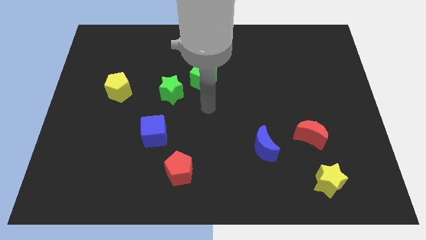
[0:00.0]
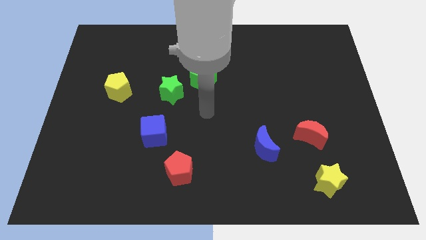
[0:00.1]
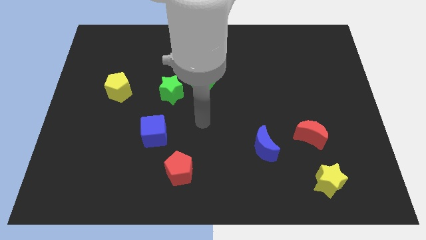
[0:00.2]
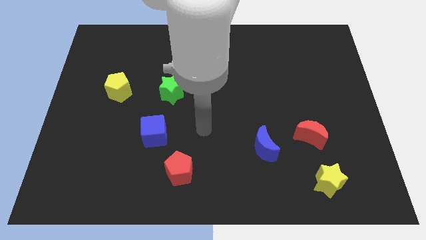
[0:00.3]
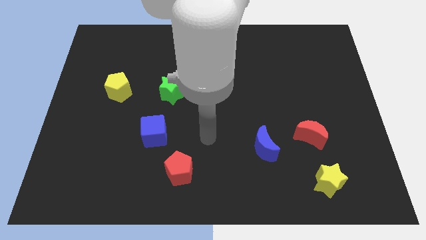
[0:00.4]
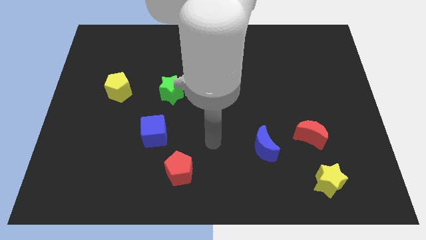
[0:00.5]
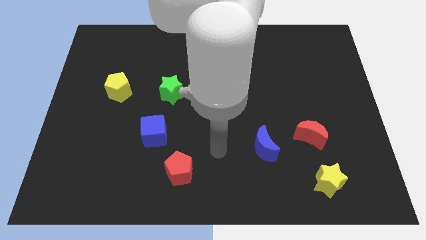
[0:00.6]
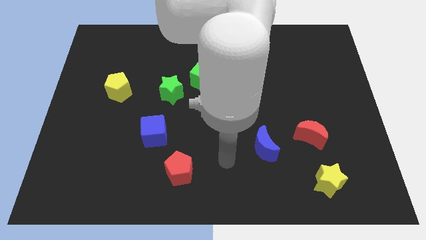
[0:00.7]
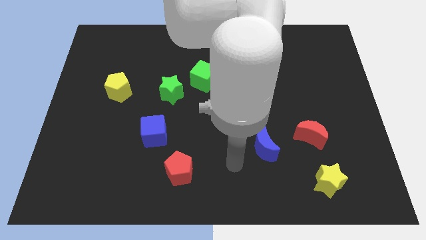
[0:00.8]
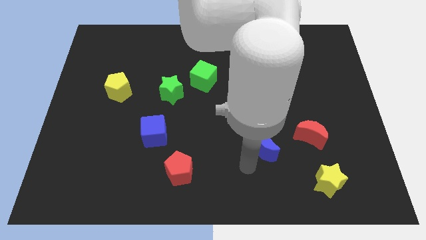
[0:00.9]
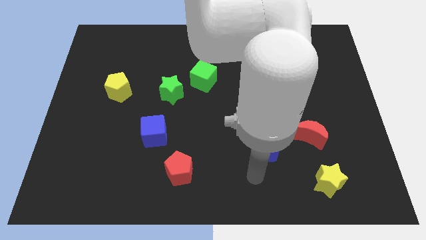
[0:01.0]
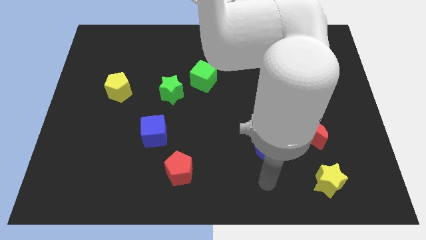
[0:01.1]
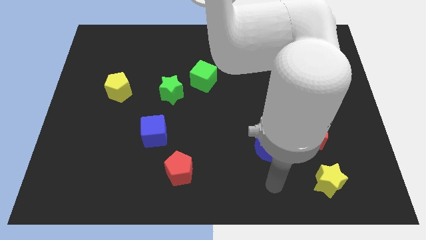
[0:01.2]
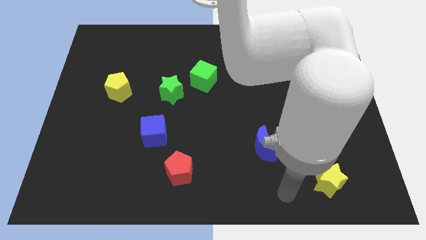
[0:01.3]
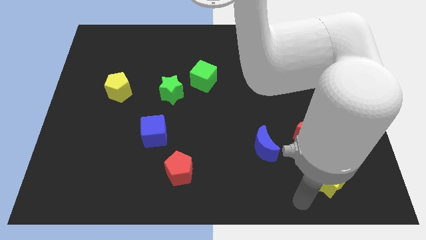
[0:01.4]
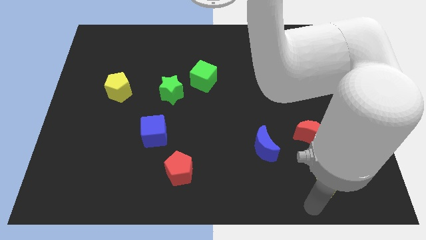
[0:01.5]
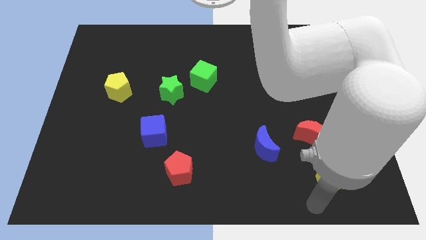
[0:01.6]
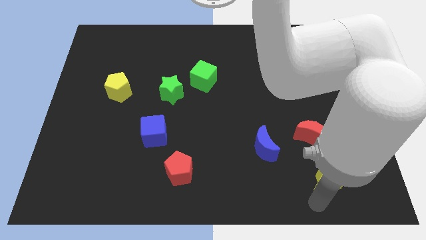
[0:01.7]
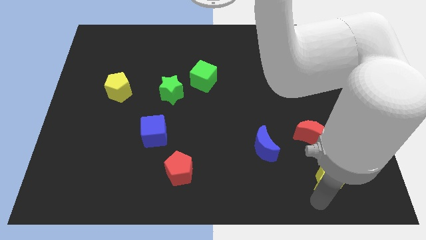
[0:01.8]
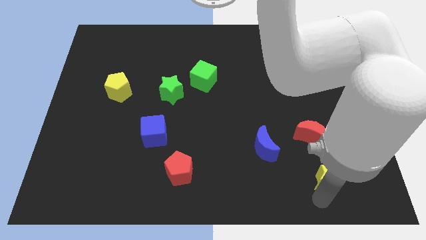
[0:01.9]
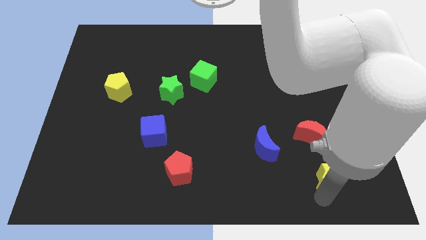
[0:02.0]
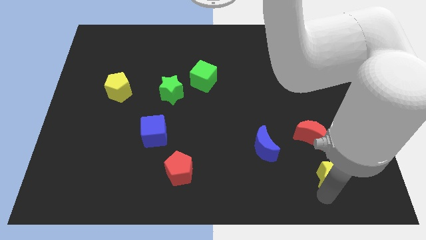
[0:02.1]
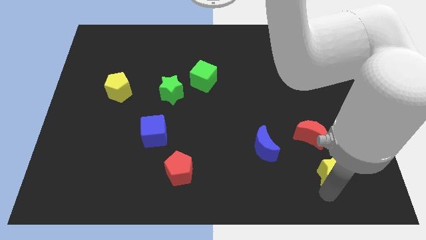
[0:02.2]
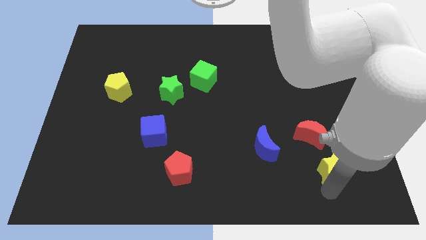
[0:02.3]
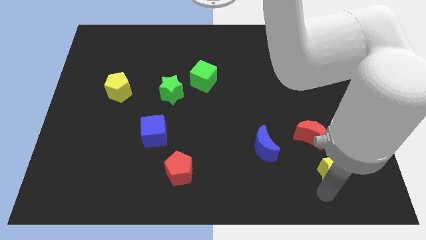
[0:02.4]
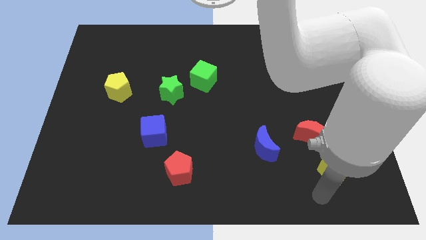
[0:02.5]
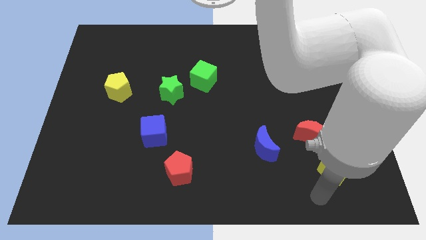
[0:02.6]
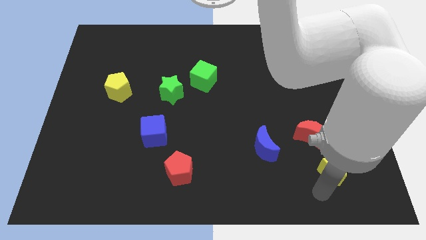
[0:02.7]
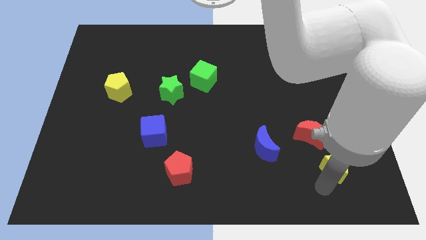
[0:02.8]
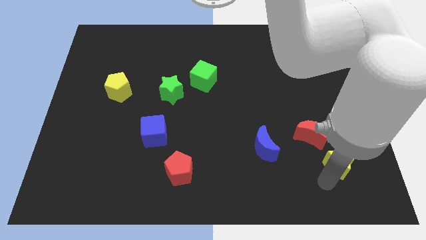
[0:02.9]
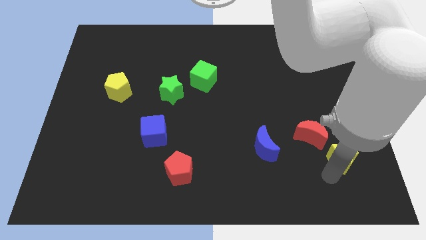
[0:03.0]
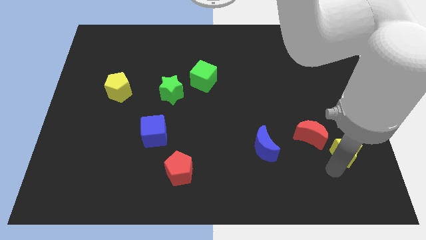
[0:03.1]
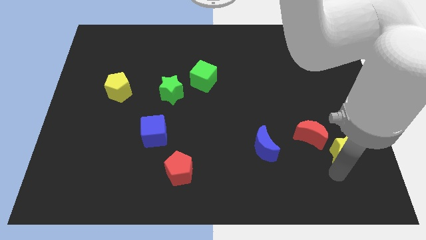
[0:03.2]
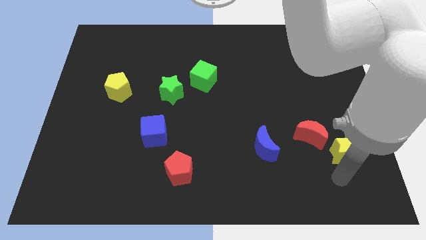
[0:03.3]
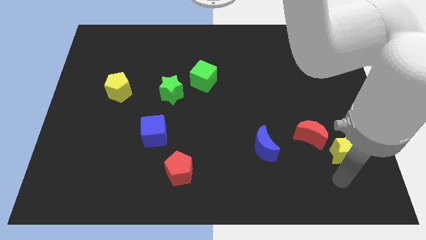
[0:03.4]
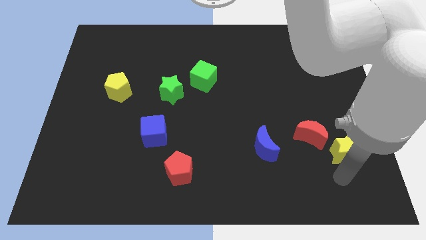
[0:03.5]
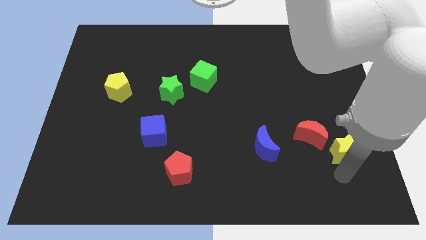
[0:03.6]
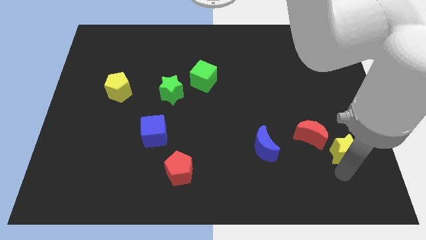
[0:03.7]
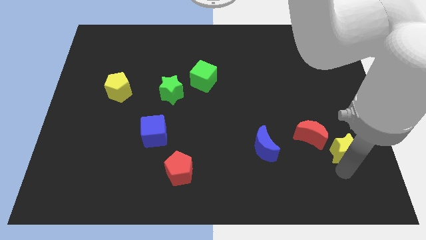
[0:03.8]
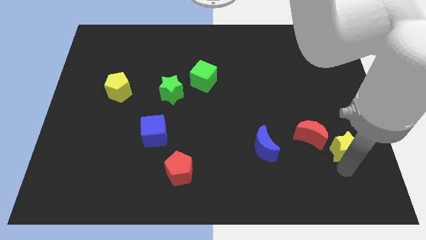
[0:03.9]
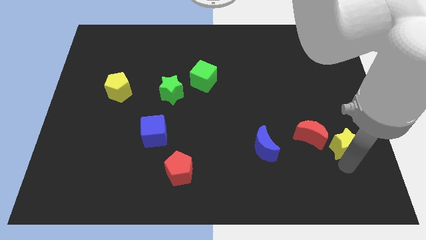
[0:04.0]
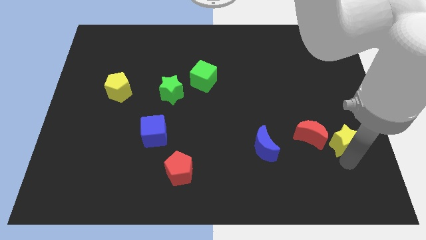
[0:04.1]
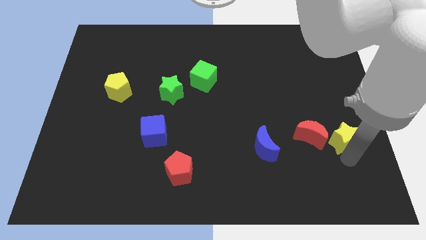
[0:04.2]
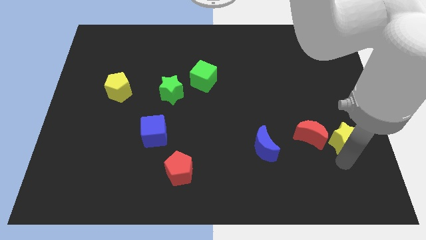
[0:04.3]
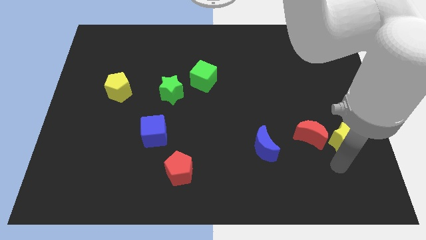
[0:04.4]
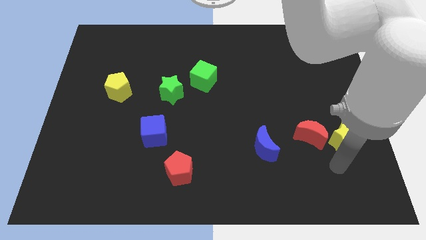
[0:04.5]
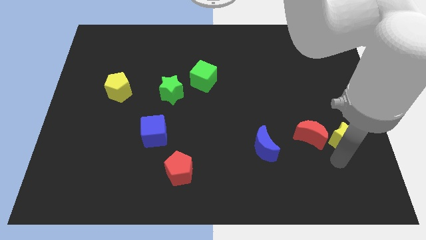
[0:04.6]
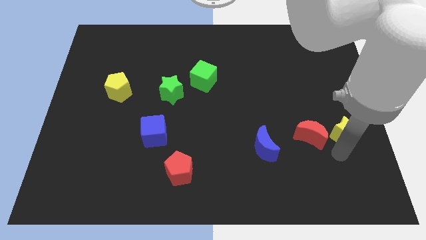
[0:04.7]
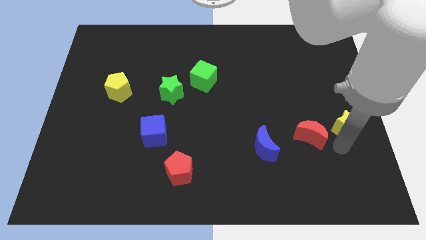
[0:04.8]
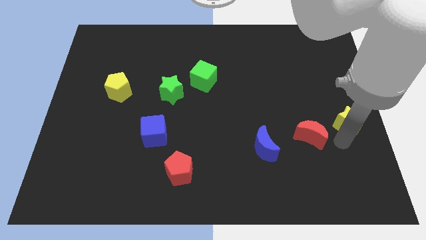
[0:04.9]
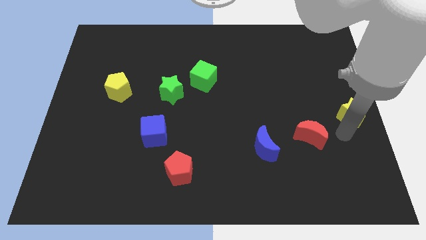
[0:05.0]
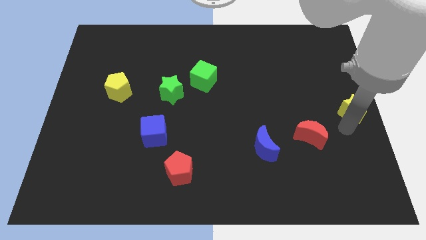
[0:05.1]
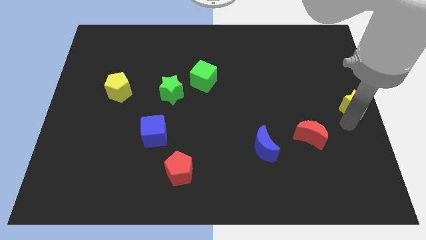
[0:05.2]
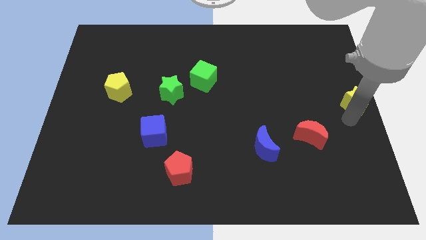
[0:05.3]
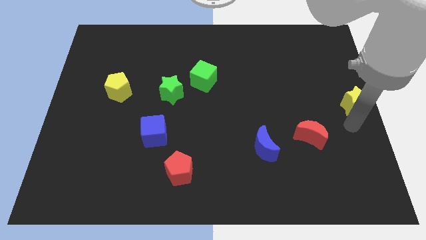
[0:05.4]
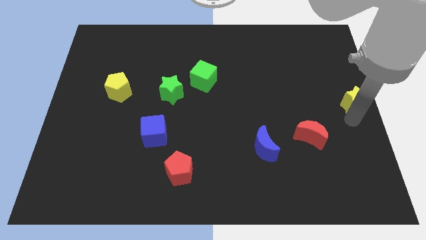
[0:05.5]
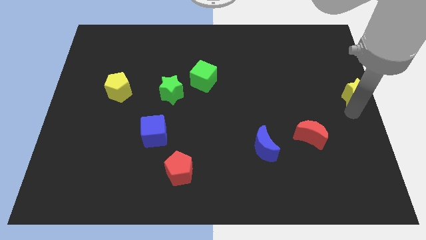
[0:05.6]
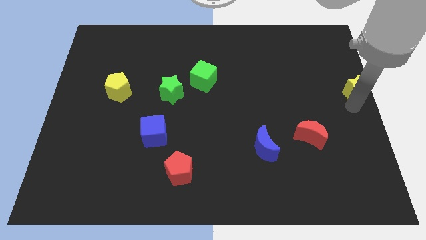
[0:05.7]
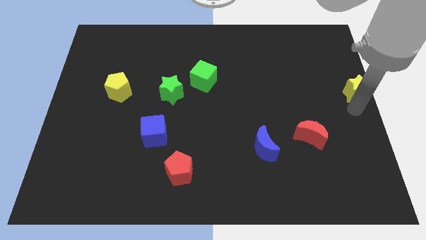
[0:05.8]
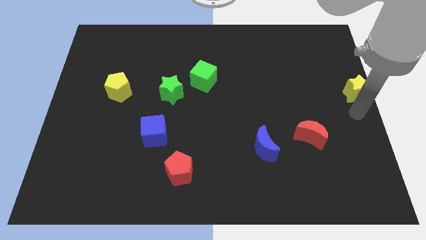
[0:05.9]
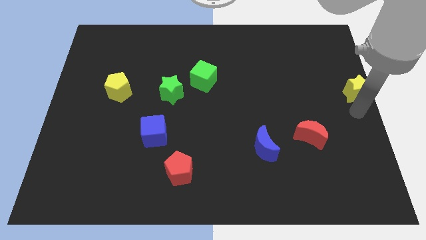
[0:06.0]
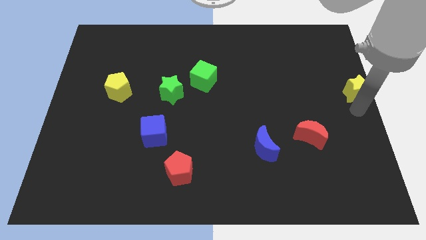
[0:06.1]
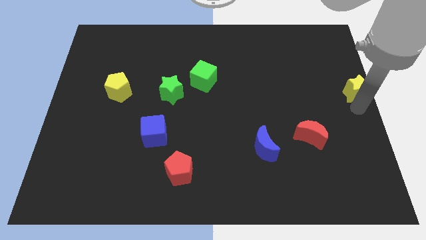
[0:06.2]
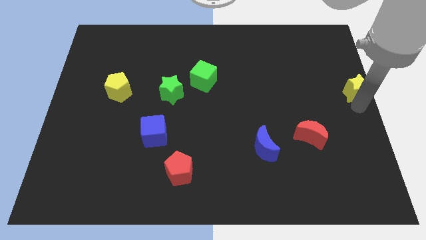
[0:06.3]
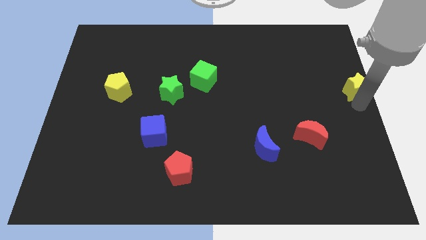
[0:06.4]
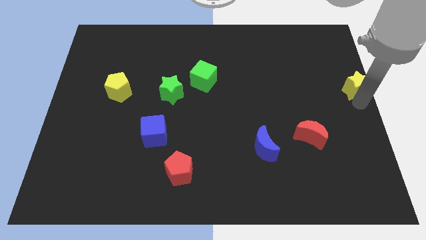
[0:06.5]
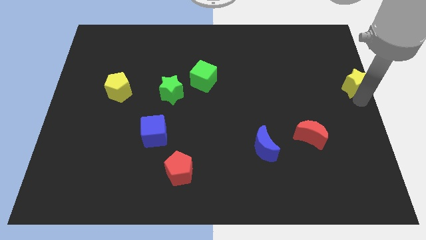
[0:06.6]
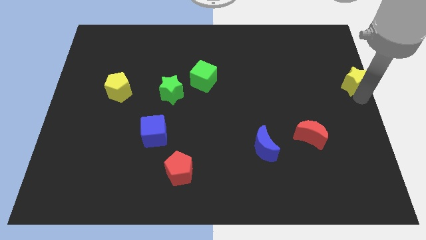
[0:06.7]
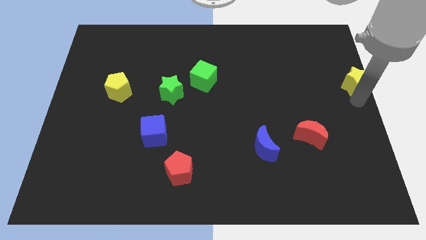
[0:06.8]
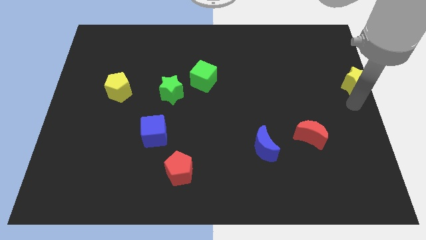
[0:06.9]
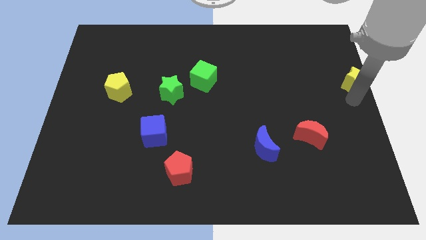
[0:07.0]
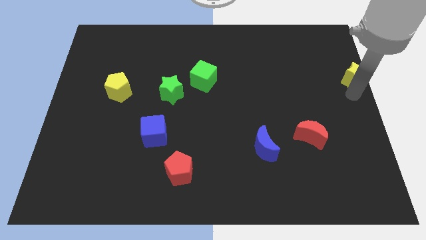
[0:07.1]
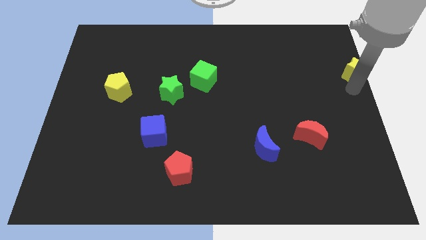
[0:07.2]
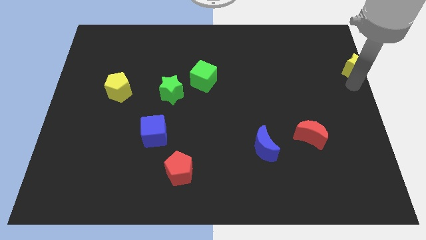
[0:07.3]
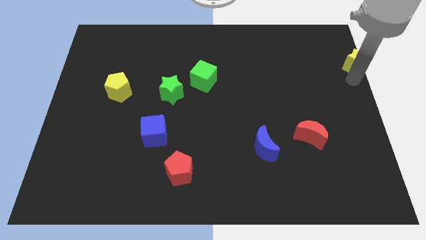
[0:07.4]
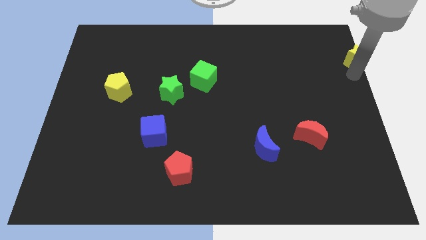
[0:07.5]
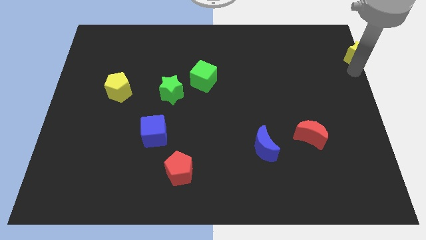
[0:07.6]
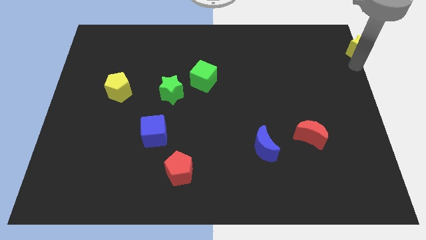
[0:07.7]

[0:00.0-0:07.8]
put the yellow star to the upper right corner
